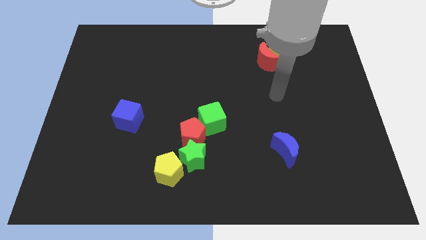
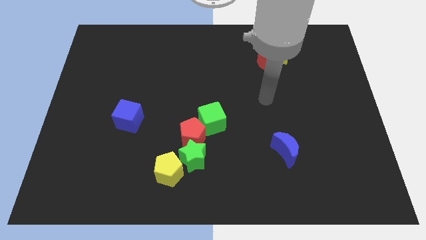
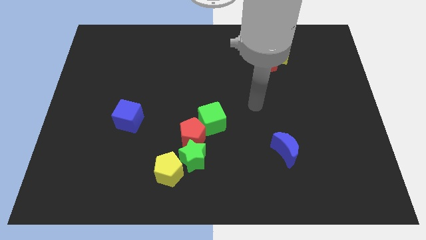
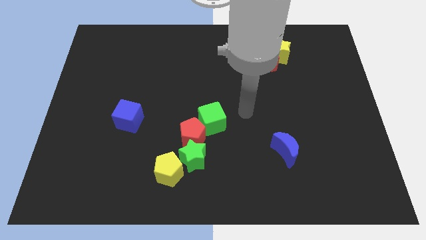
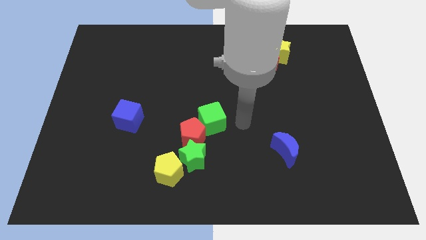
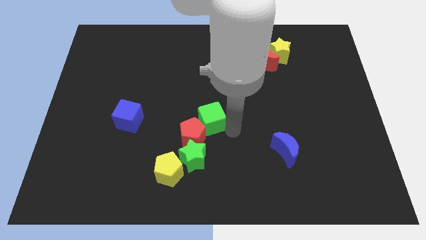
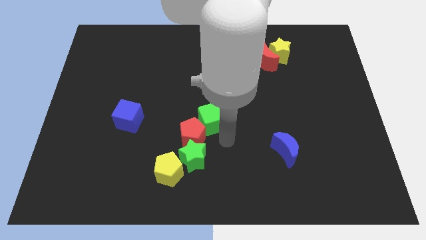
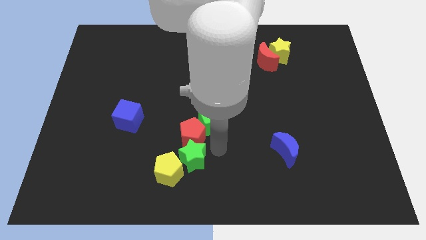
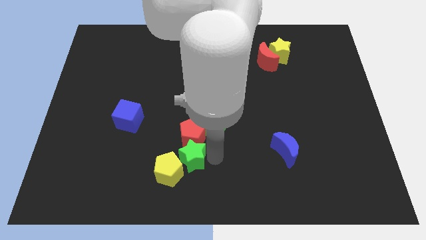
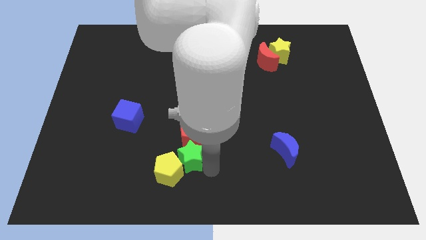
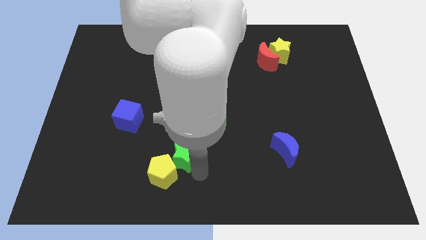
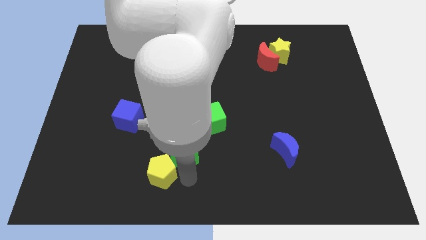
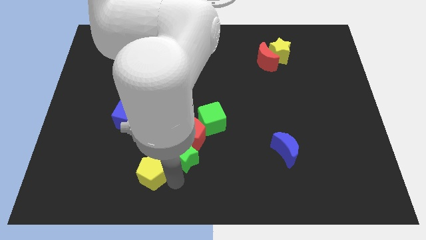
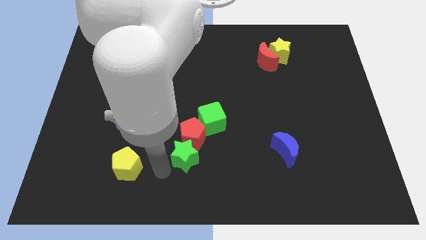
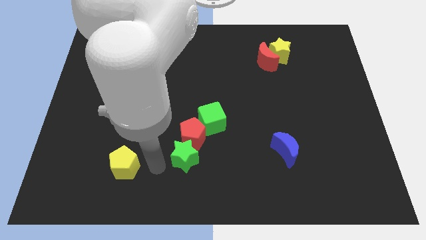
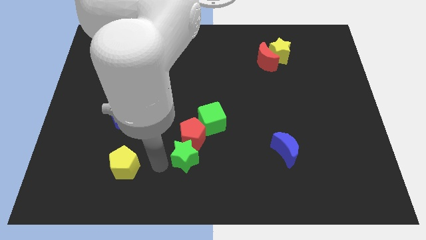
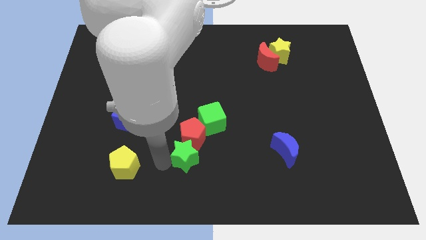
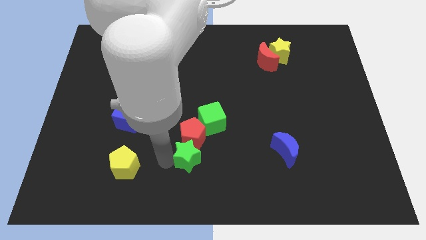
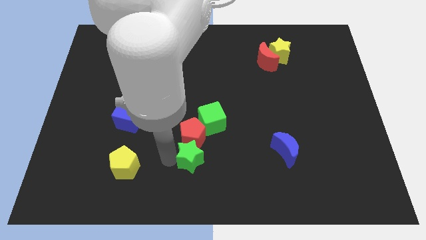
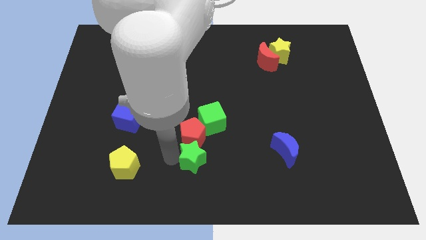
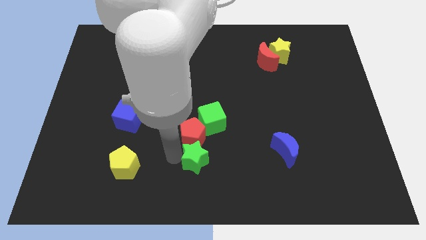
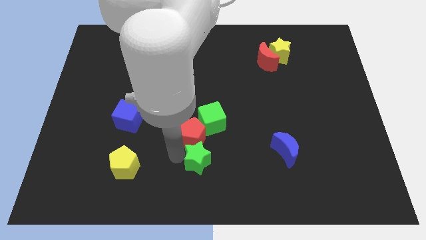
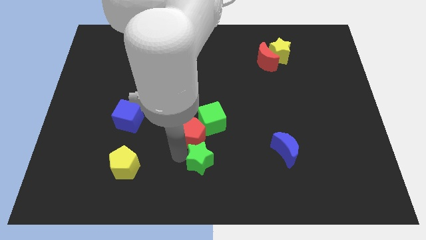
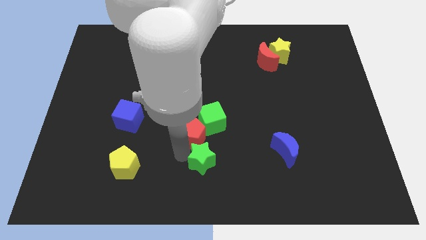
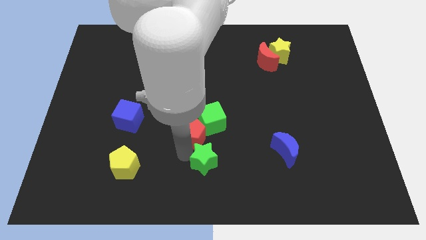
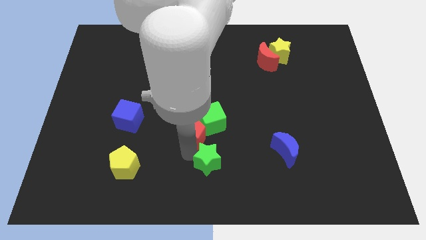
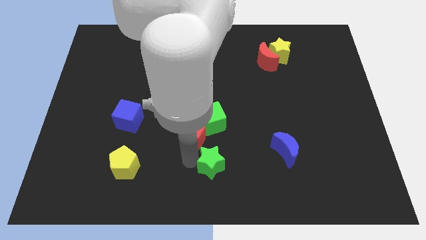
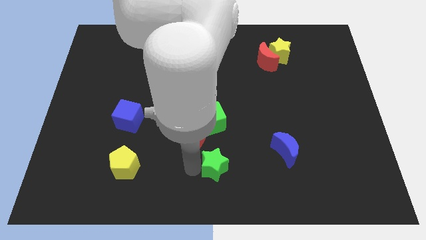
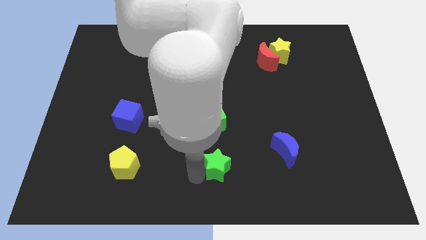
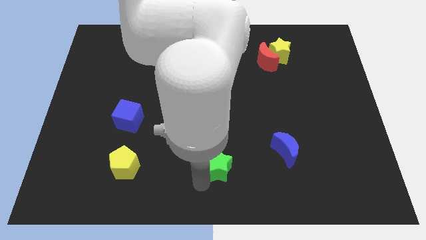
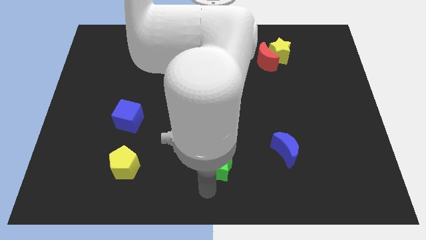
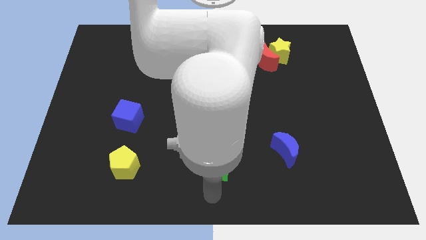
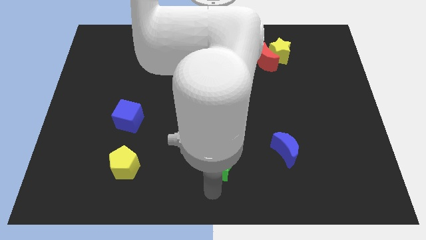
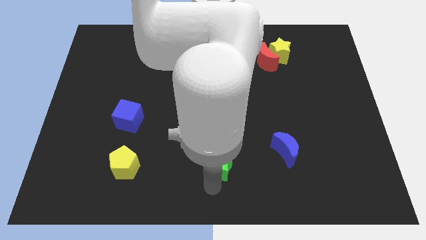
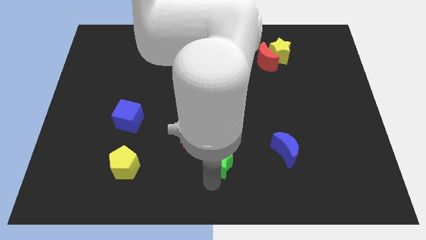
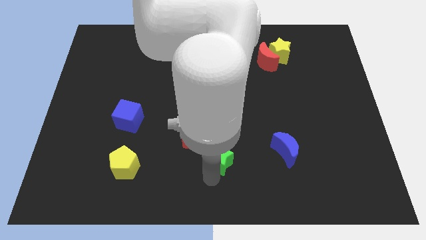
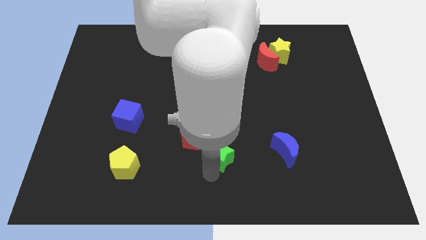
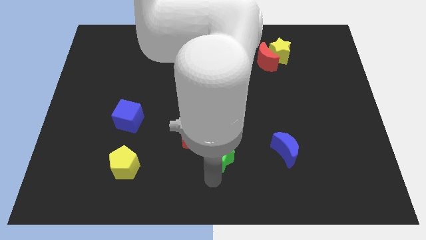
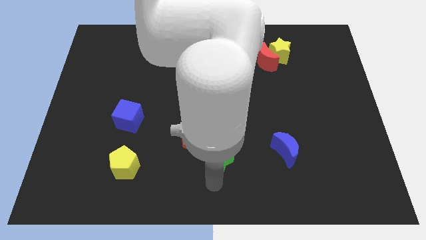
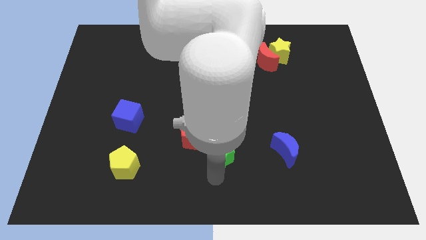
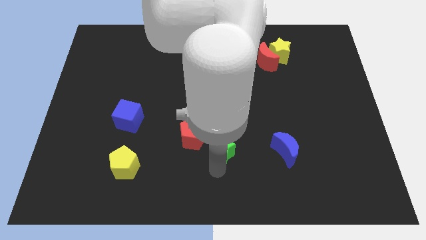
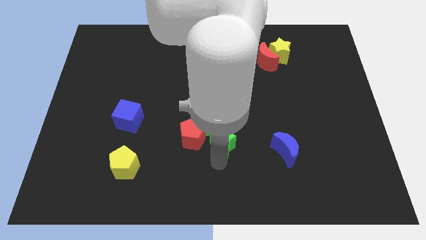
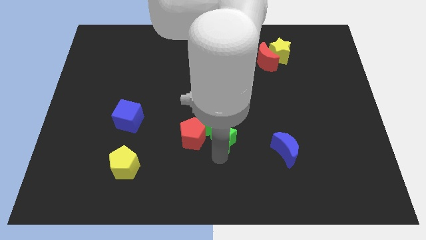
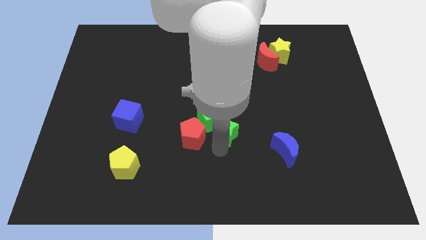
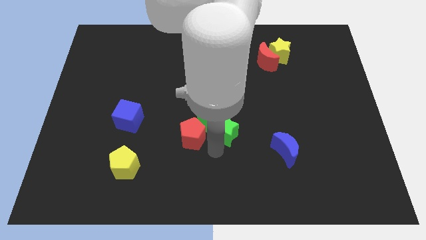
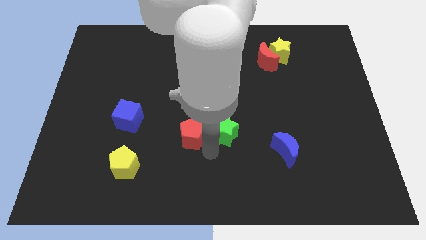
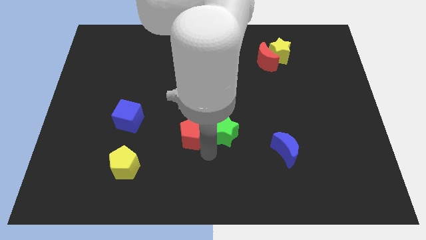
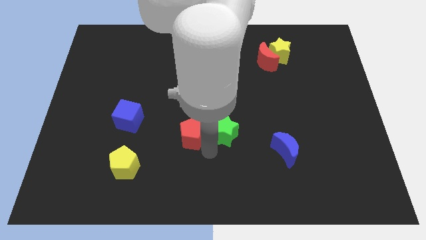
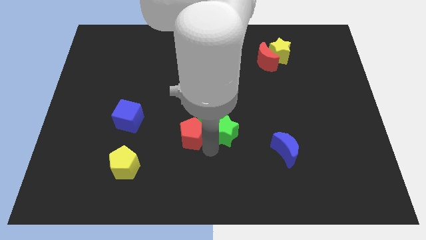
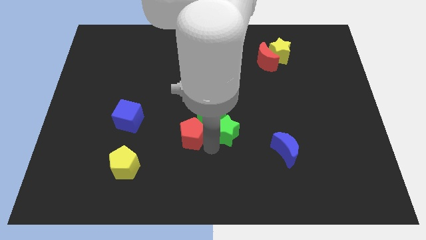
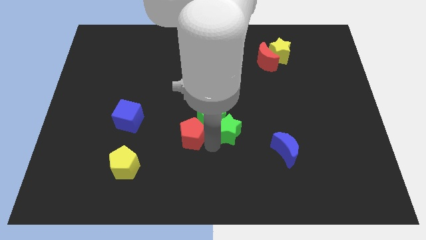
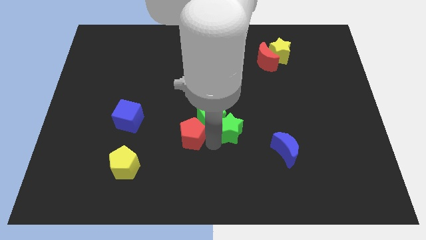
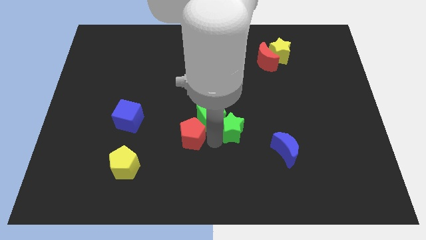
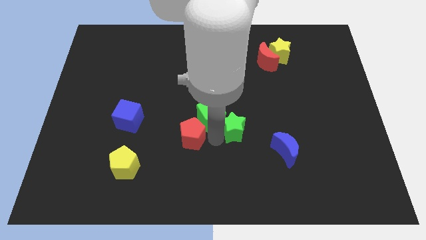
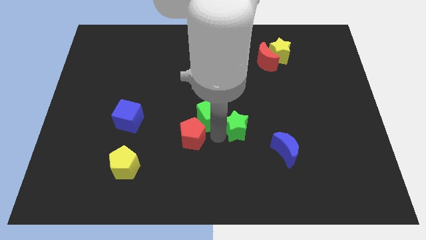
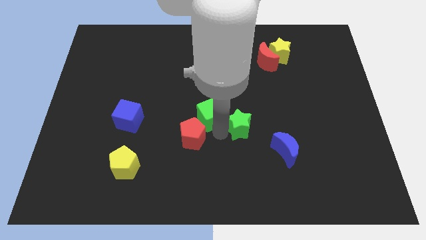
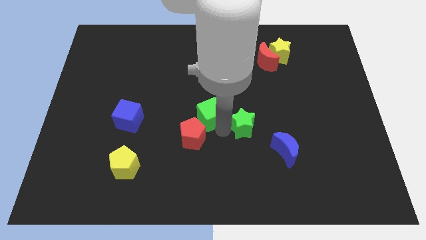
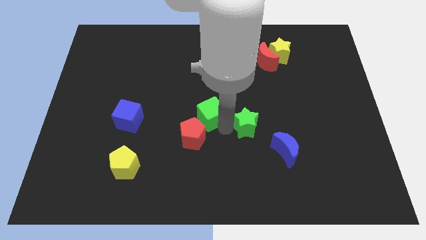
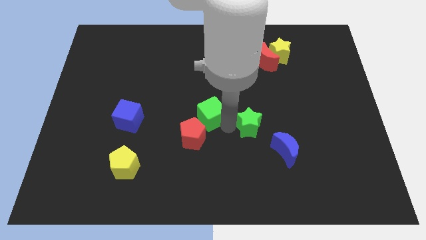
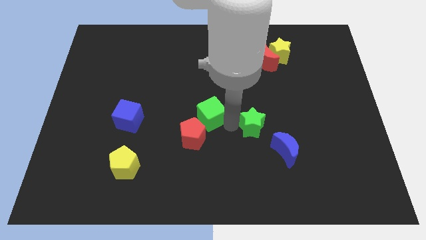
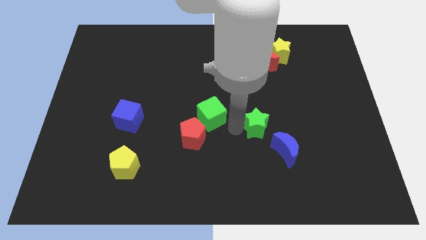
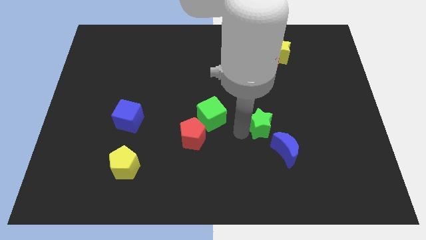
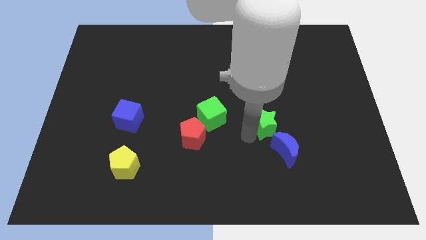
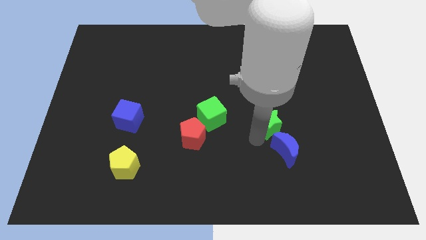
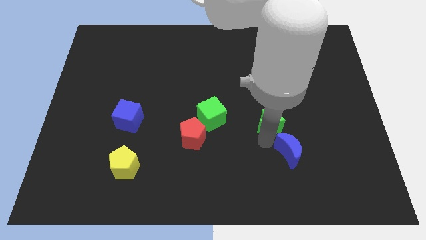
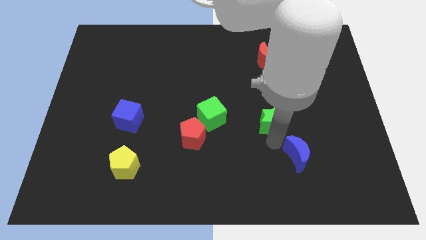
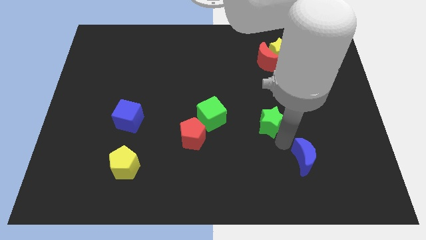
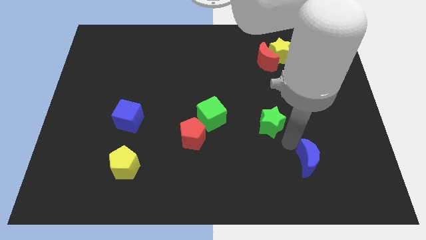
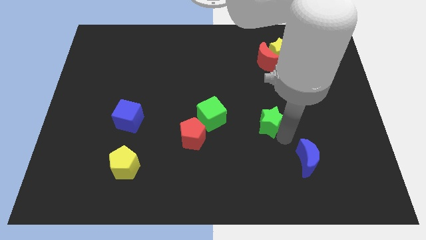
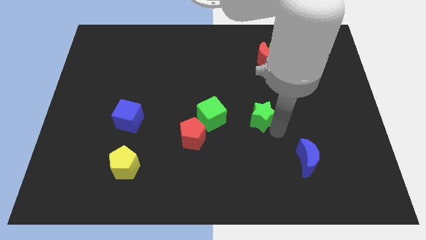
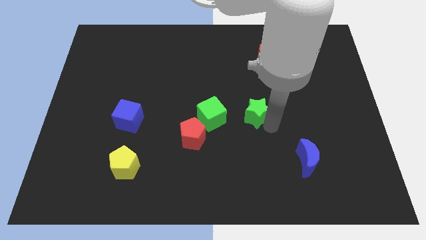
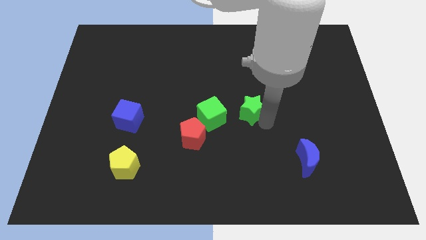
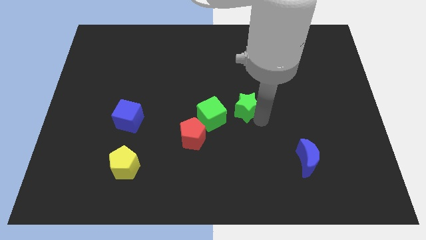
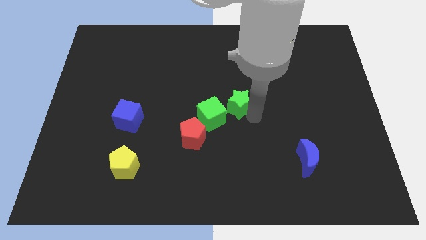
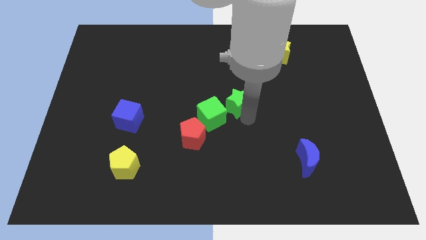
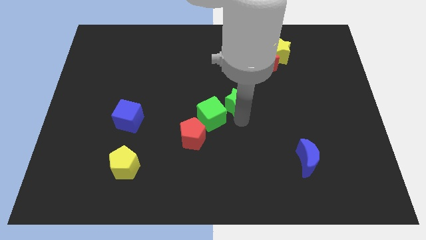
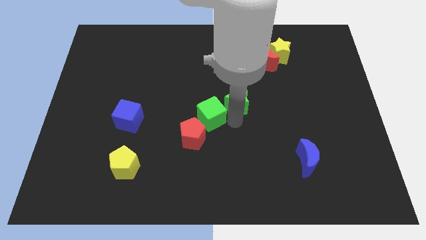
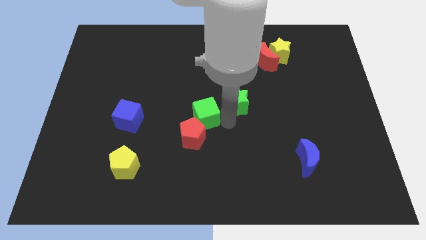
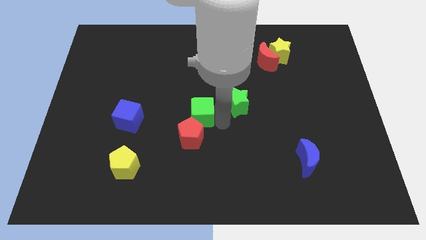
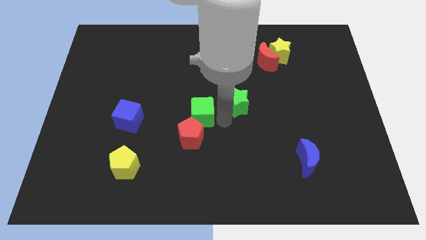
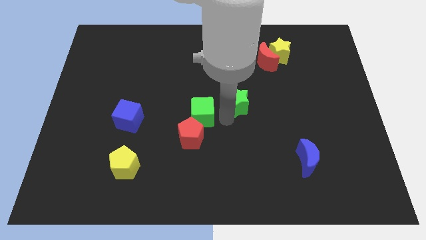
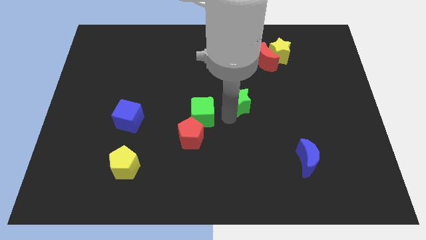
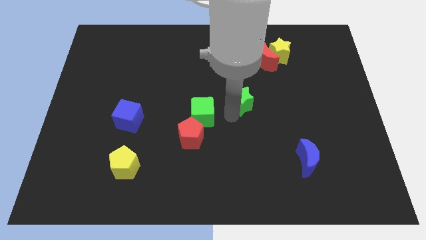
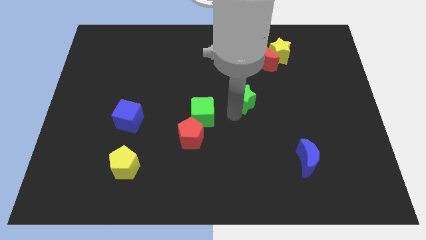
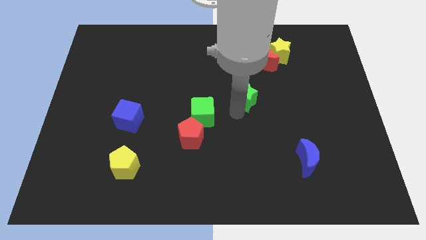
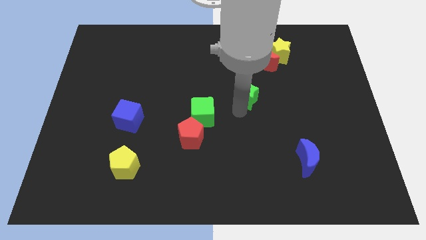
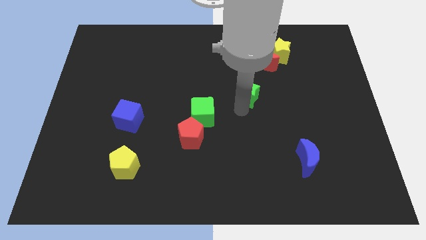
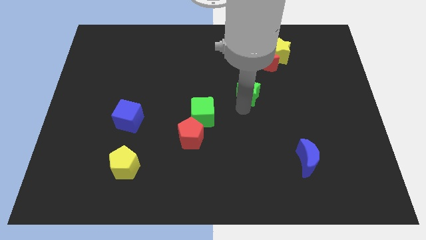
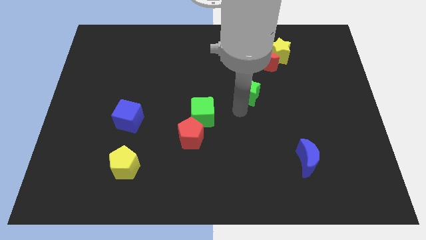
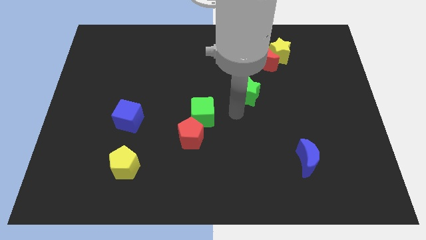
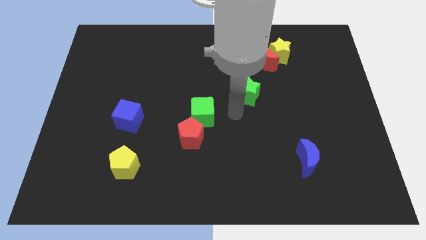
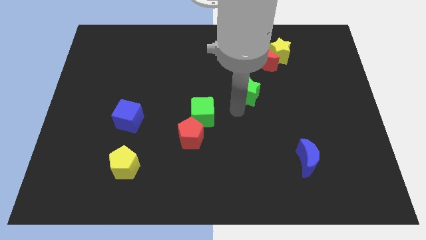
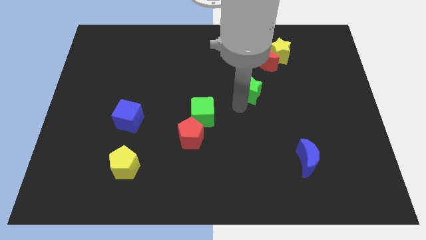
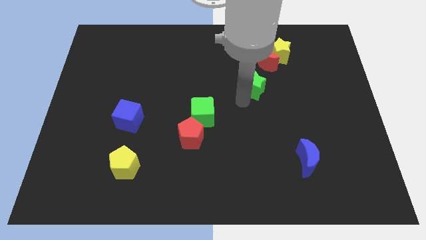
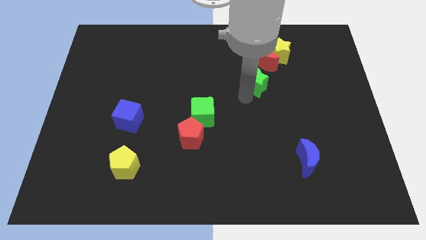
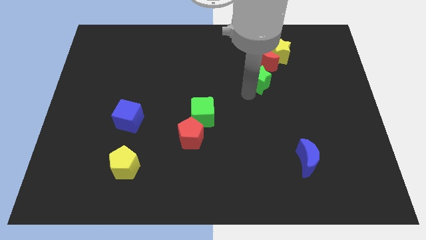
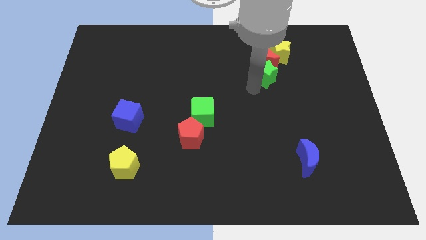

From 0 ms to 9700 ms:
move the green star close to the red moon
